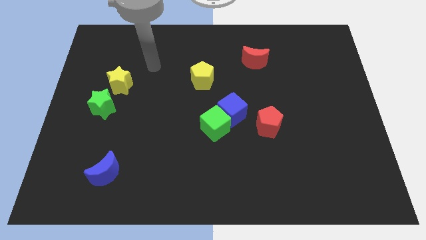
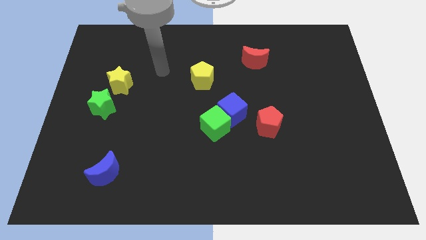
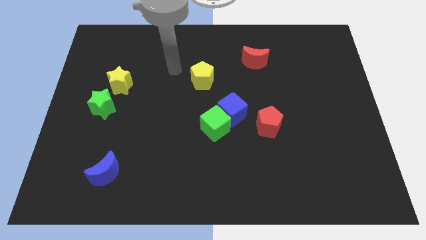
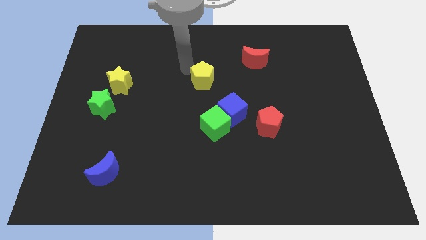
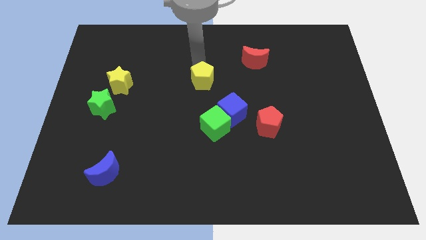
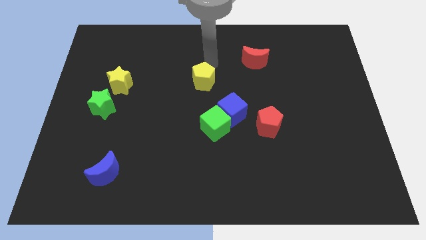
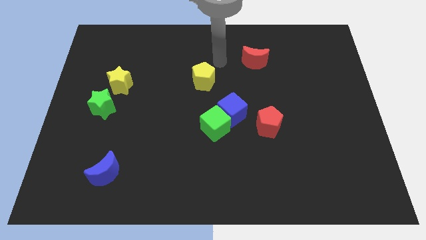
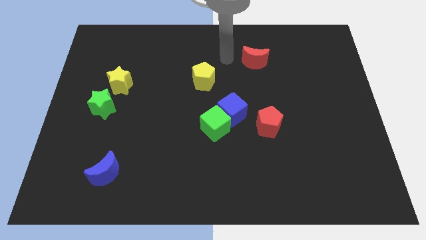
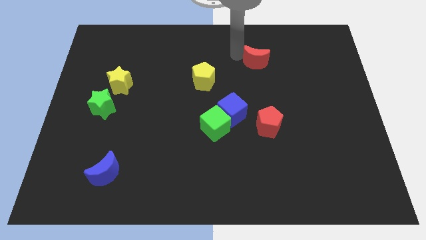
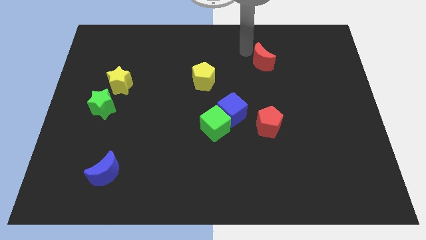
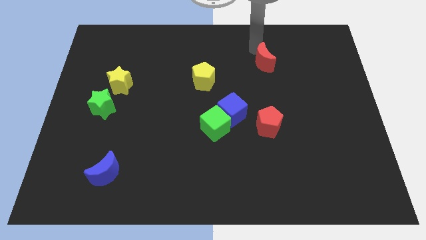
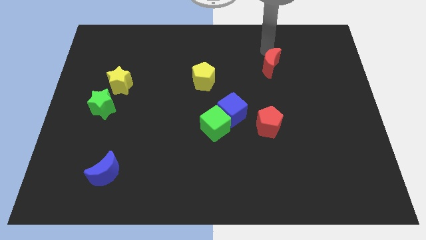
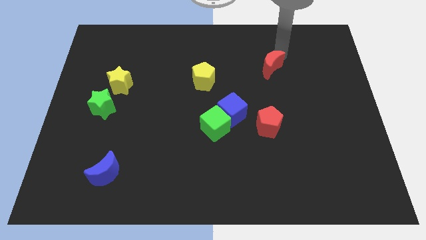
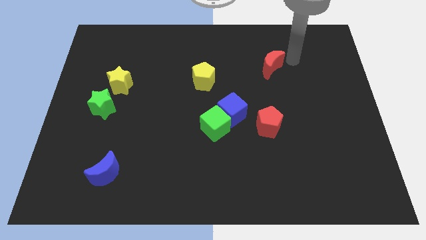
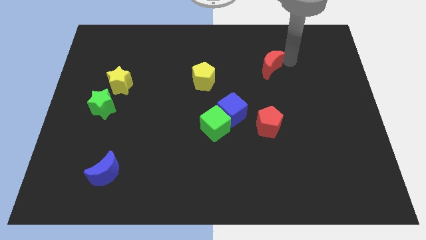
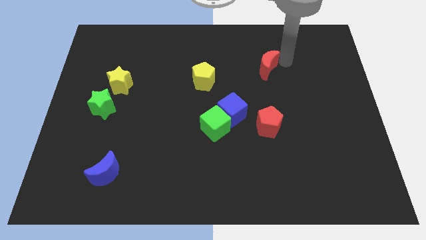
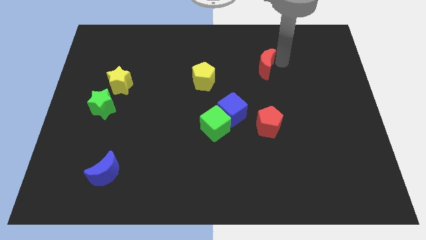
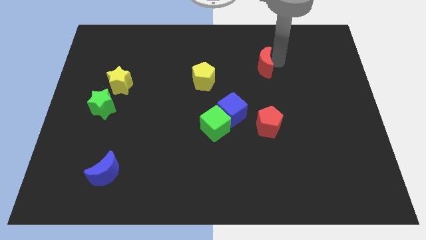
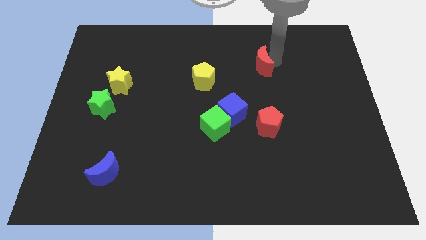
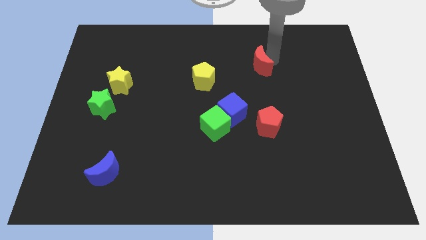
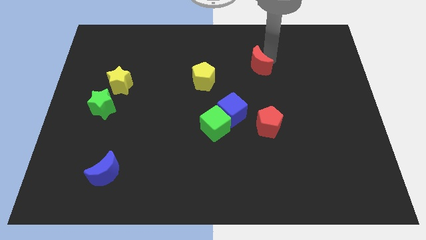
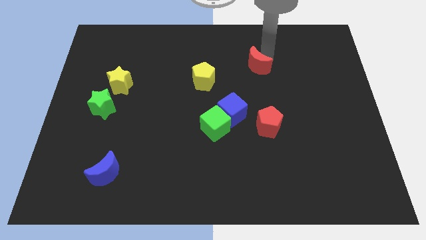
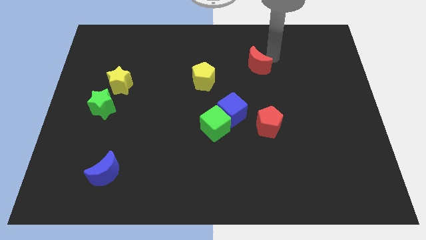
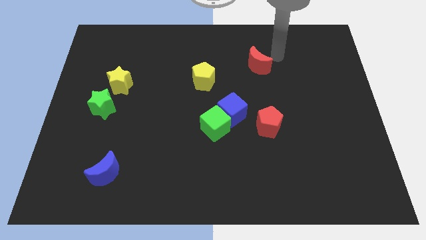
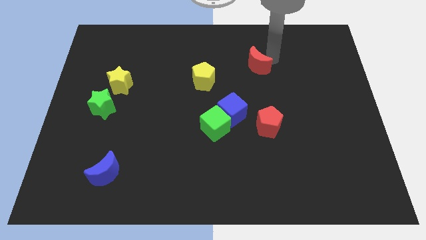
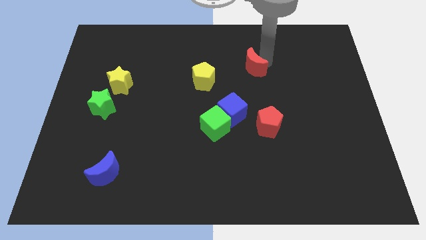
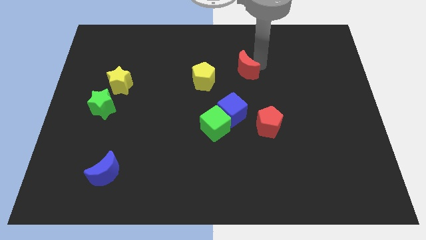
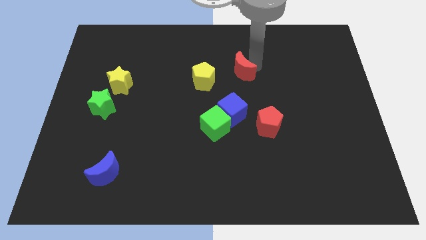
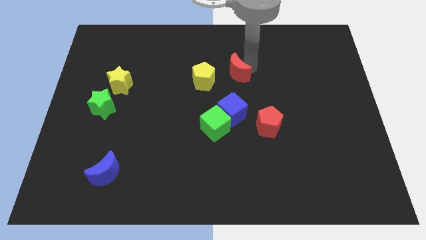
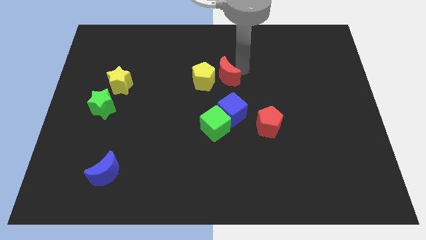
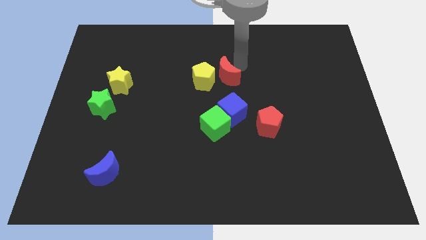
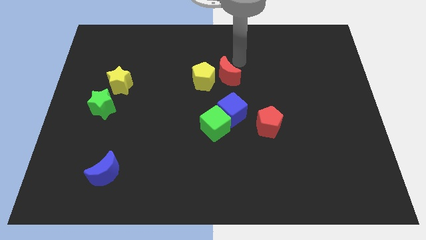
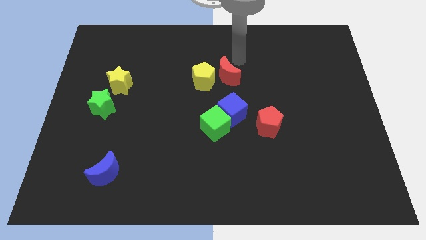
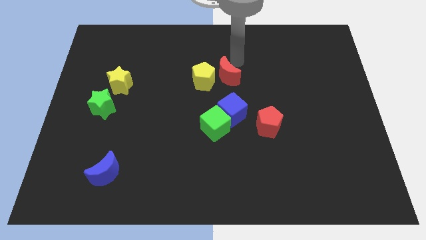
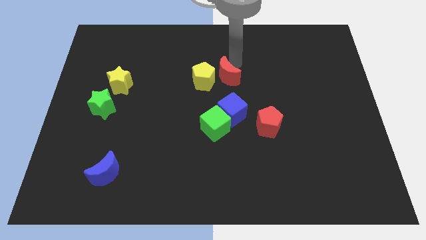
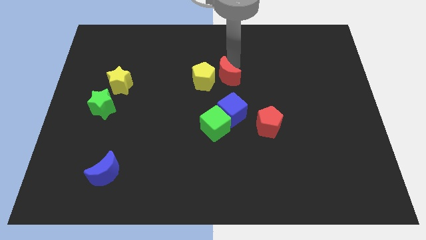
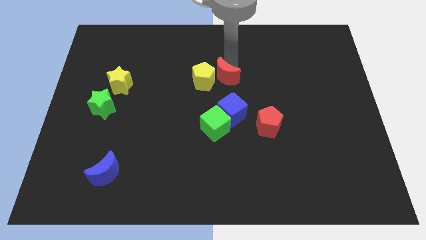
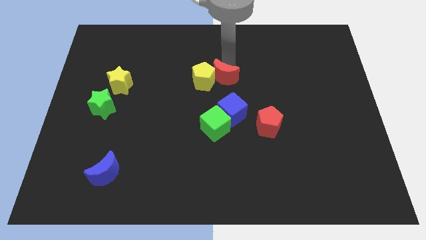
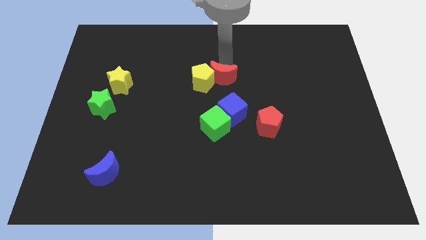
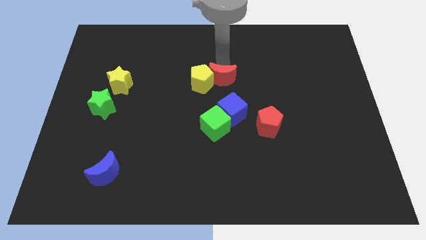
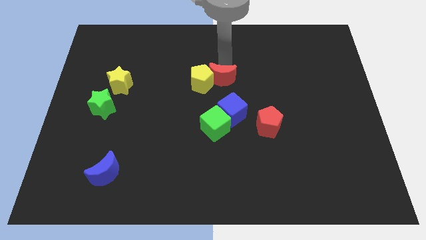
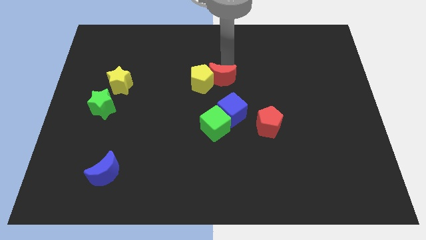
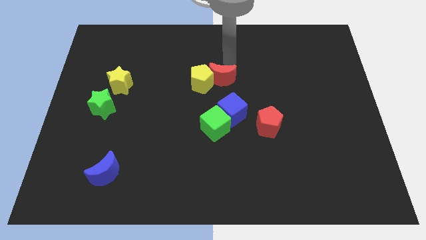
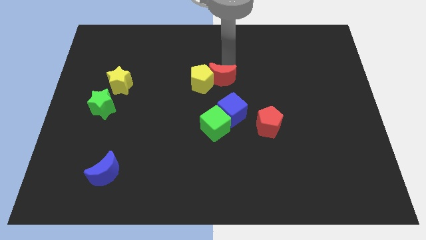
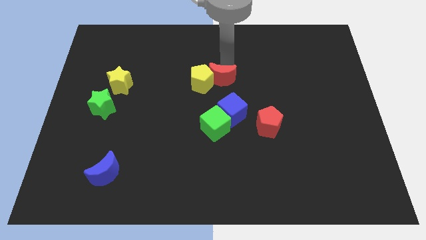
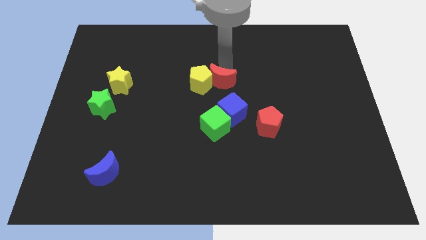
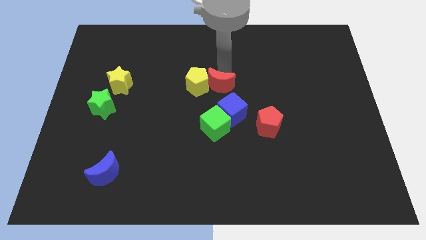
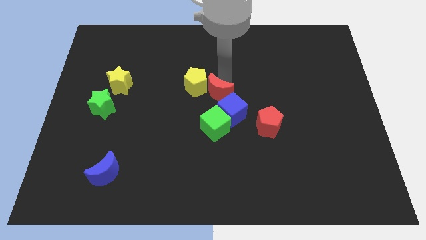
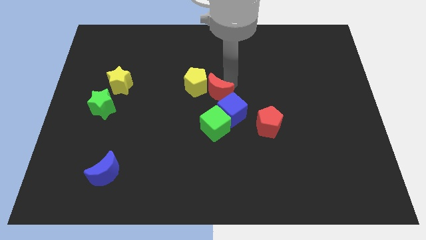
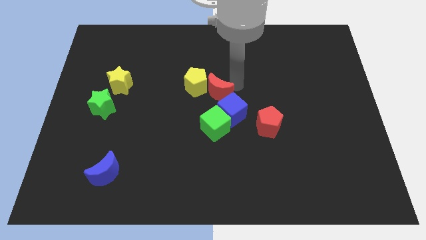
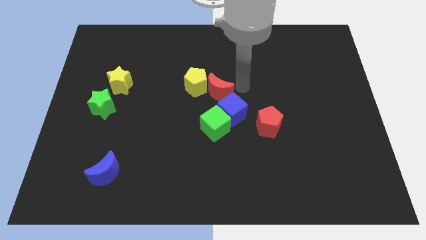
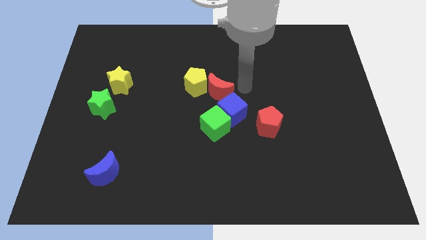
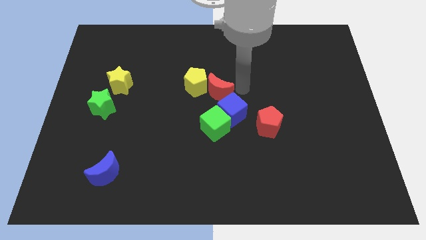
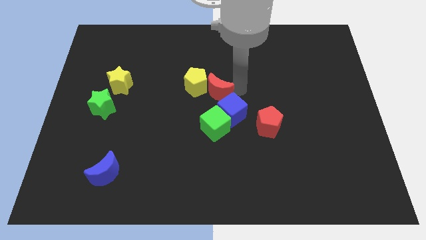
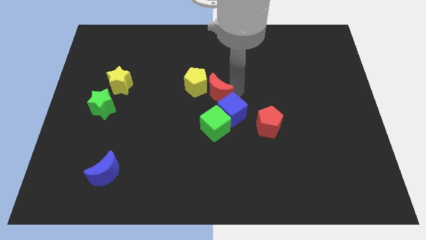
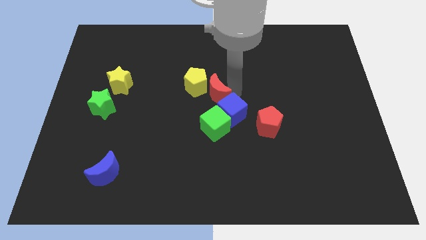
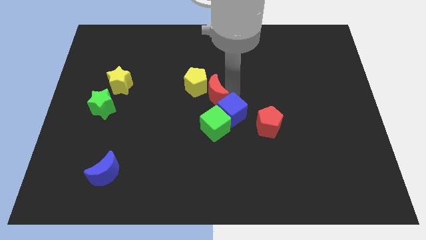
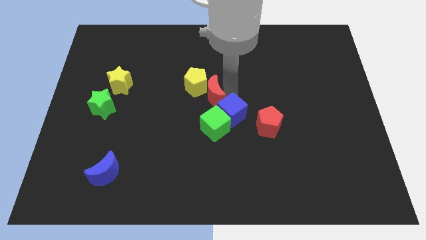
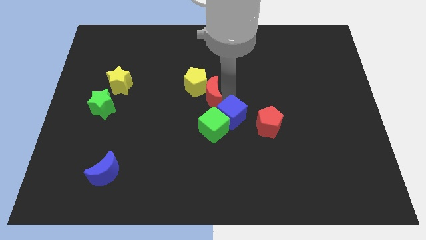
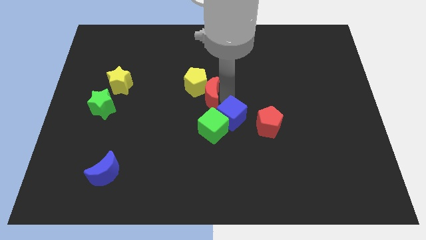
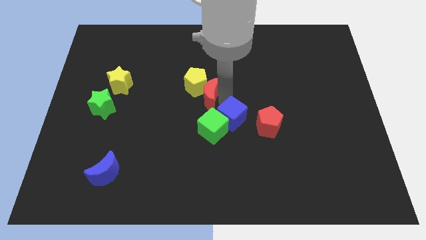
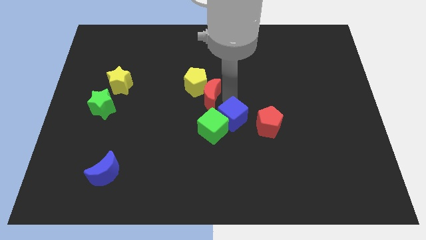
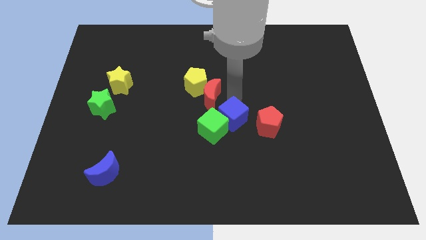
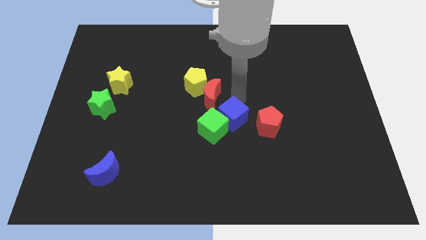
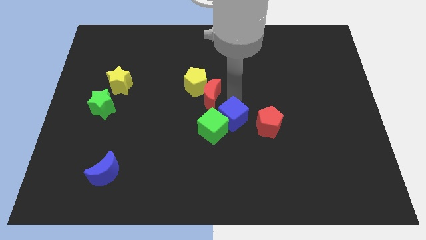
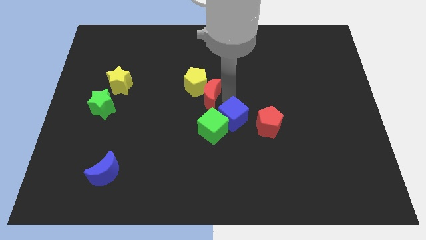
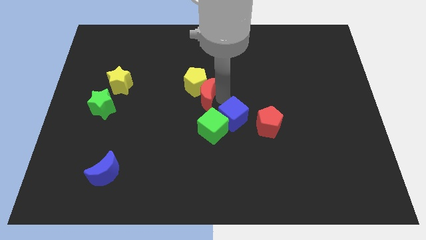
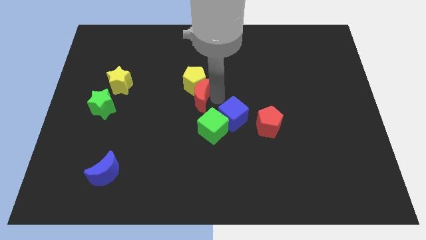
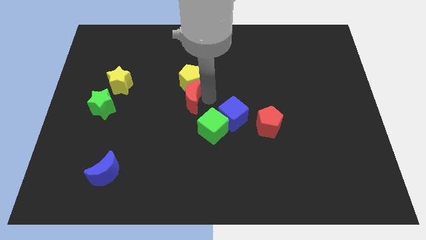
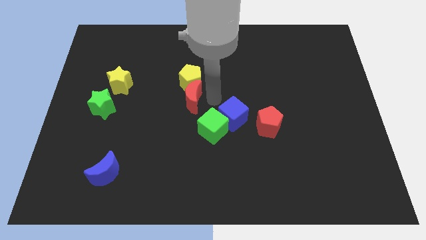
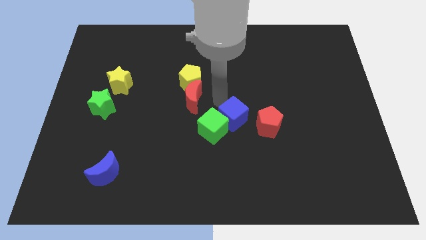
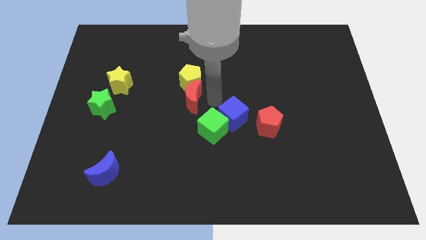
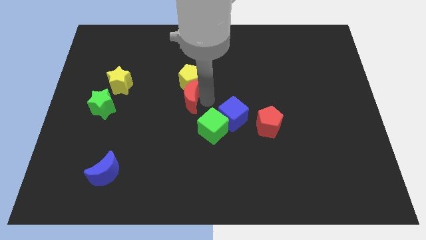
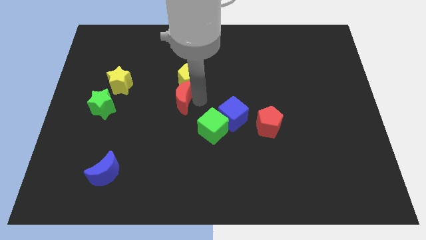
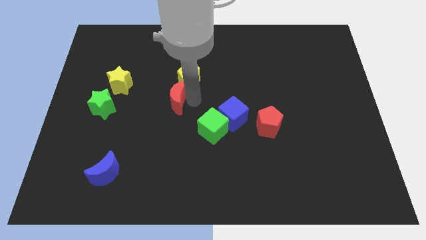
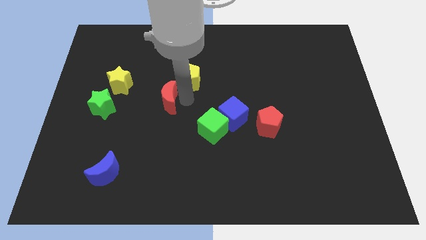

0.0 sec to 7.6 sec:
put the red moon just right of the green star
